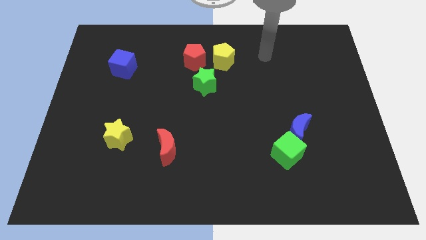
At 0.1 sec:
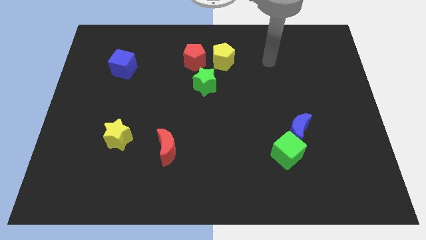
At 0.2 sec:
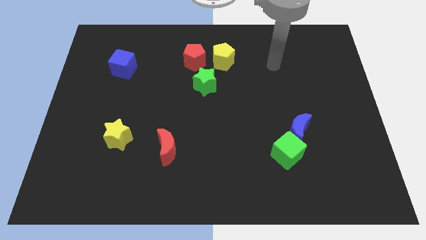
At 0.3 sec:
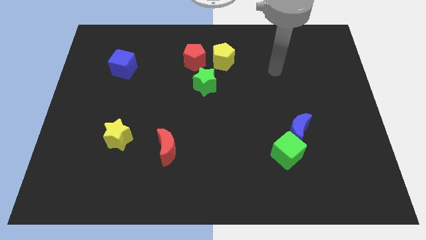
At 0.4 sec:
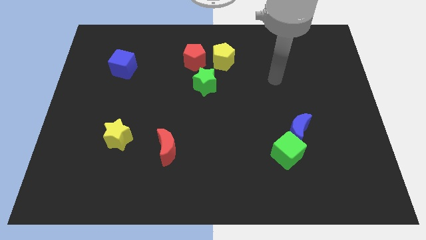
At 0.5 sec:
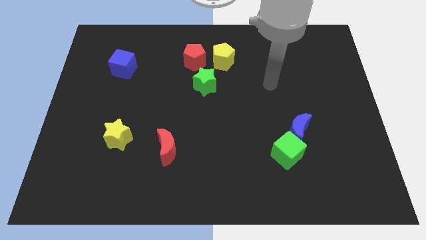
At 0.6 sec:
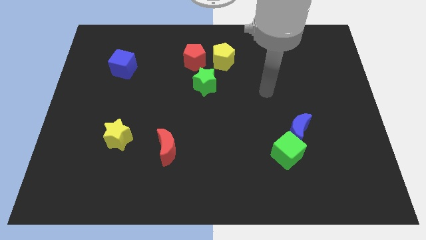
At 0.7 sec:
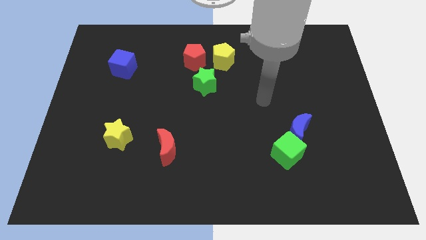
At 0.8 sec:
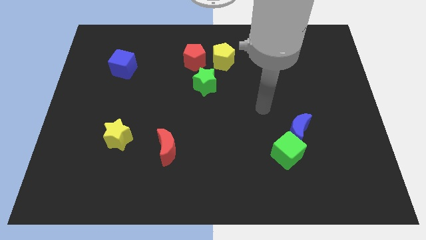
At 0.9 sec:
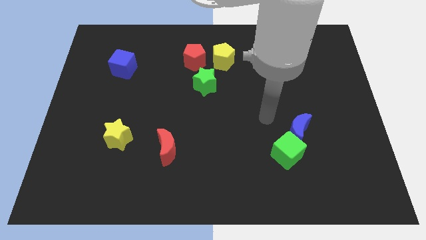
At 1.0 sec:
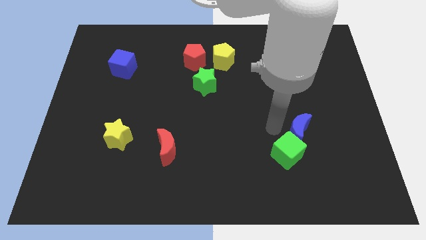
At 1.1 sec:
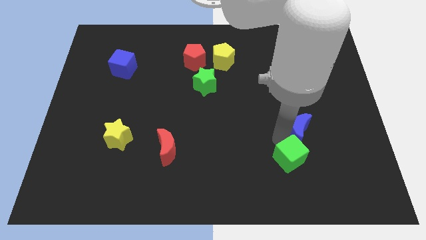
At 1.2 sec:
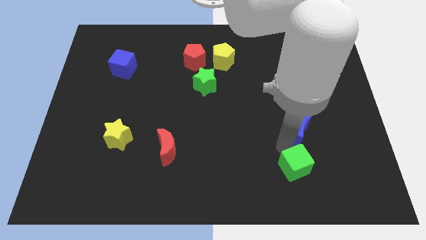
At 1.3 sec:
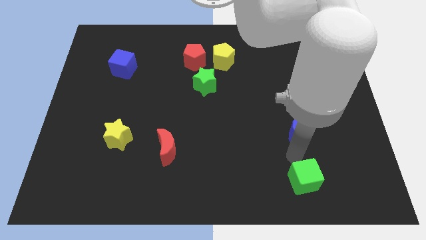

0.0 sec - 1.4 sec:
move the blue moon away from the green cube

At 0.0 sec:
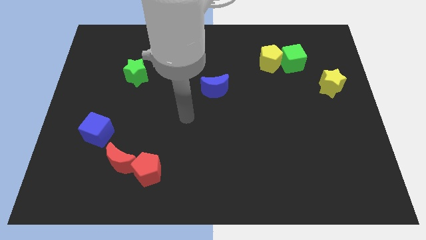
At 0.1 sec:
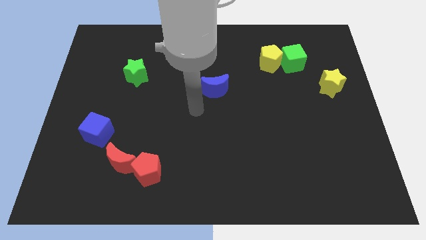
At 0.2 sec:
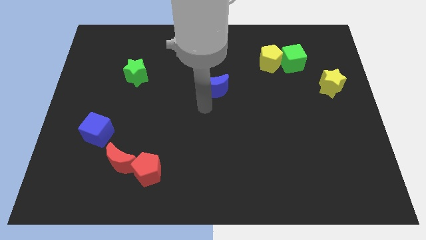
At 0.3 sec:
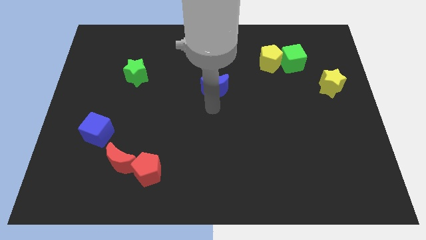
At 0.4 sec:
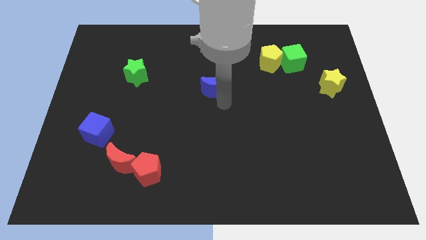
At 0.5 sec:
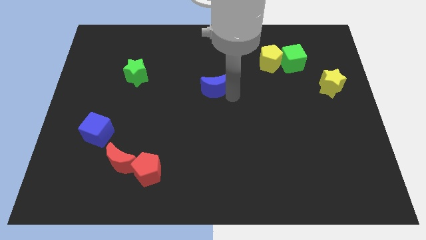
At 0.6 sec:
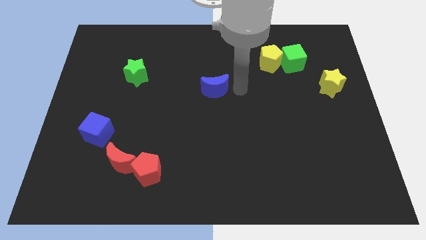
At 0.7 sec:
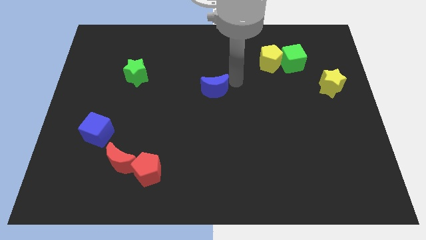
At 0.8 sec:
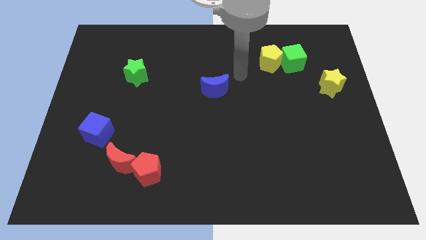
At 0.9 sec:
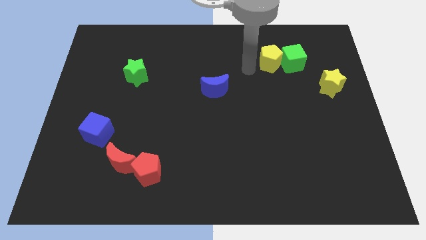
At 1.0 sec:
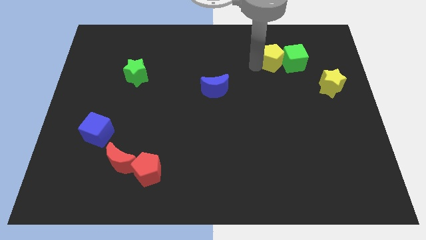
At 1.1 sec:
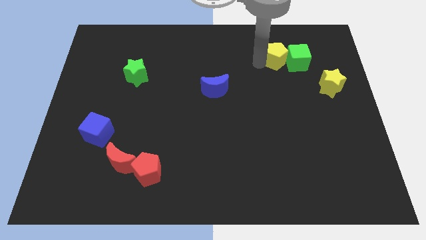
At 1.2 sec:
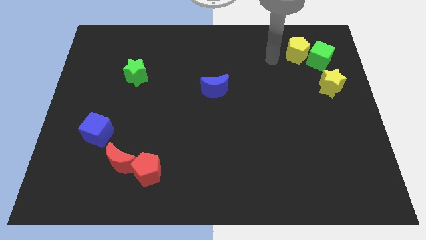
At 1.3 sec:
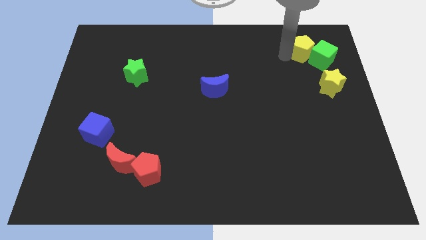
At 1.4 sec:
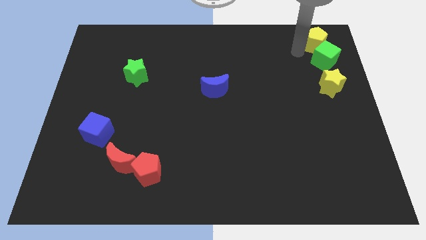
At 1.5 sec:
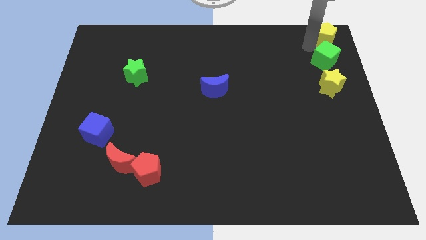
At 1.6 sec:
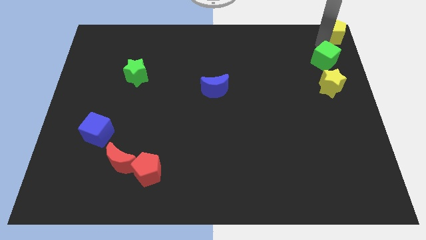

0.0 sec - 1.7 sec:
separate the green cube from the yellow pentagon

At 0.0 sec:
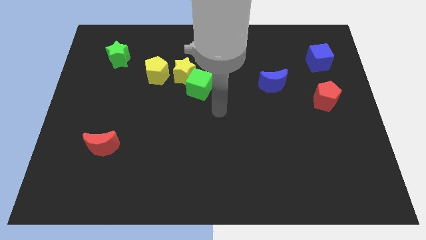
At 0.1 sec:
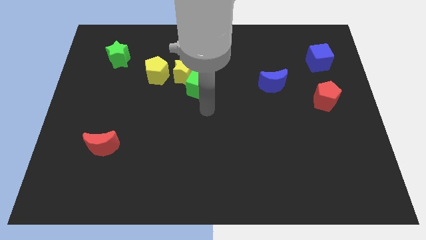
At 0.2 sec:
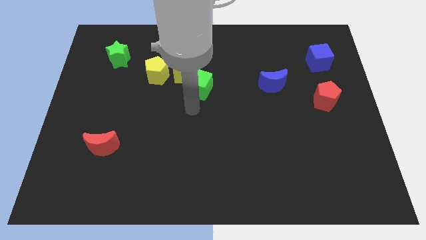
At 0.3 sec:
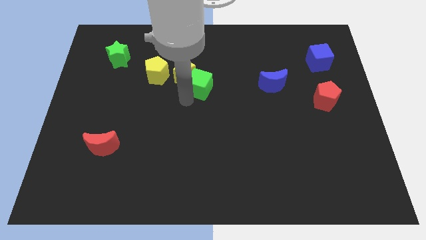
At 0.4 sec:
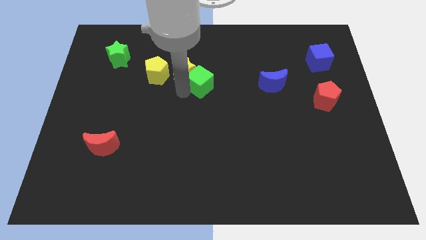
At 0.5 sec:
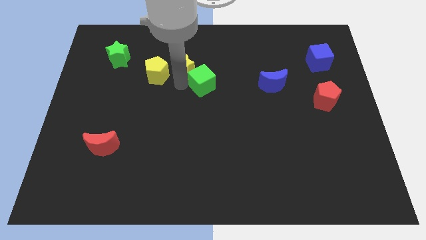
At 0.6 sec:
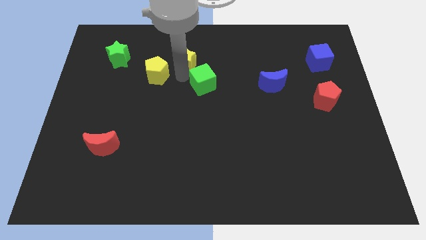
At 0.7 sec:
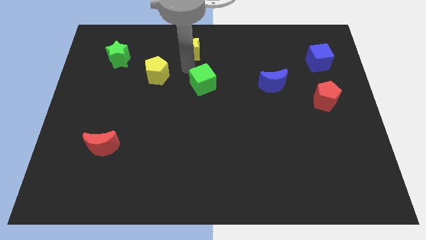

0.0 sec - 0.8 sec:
pull the green cube apart from the yellow star

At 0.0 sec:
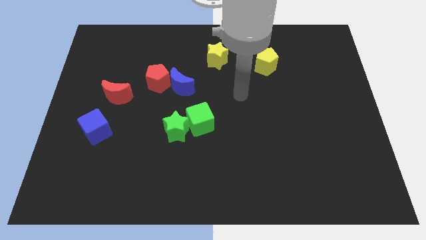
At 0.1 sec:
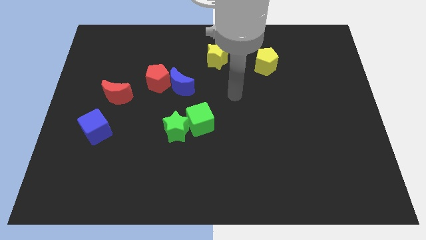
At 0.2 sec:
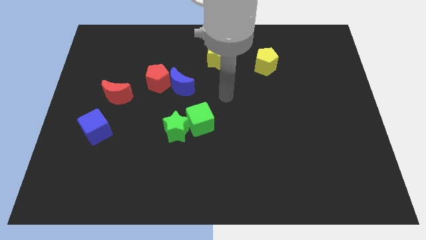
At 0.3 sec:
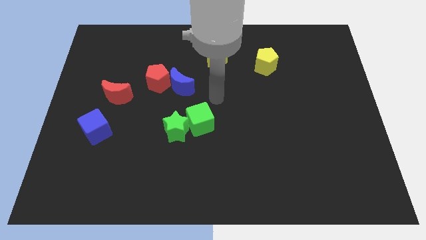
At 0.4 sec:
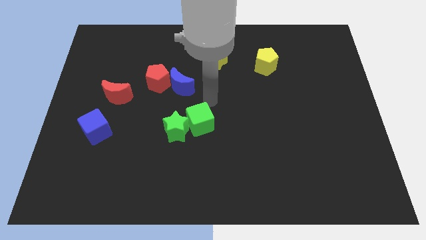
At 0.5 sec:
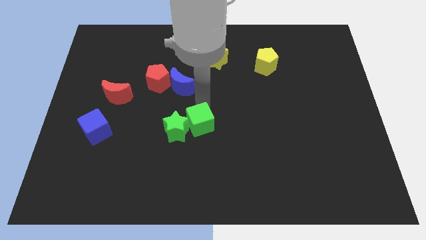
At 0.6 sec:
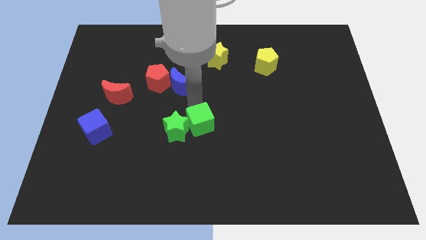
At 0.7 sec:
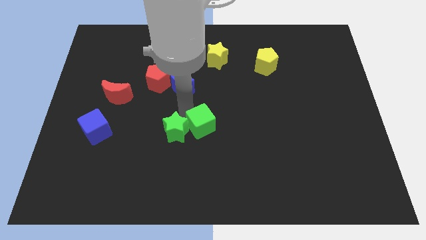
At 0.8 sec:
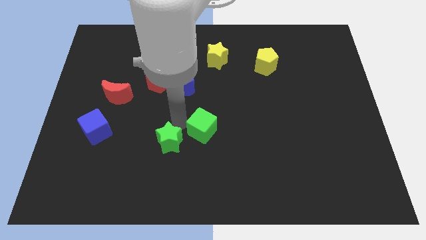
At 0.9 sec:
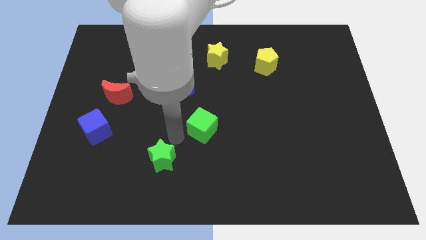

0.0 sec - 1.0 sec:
pull the green cube apart from the green star

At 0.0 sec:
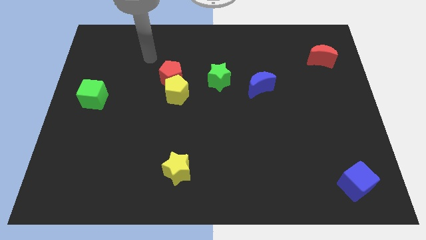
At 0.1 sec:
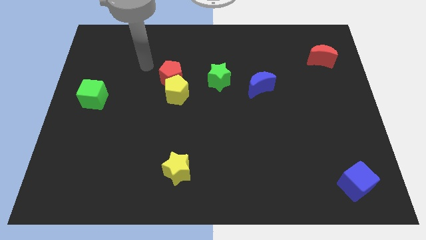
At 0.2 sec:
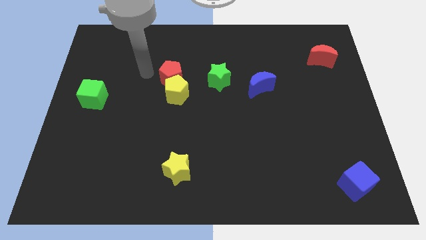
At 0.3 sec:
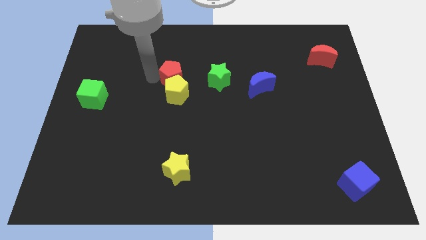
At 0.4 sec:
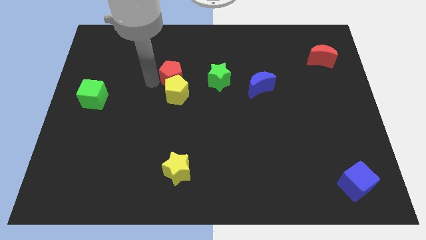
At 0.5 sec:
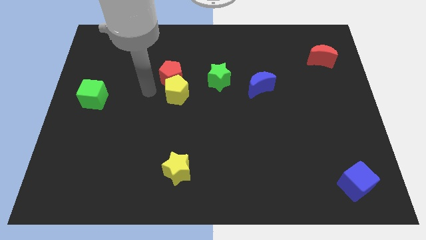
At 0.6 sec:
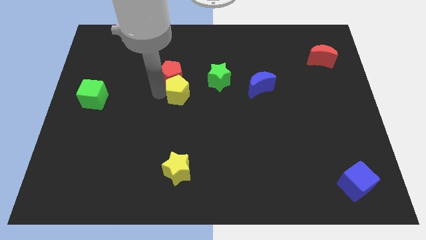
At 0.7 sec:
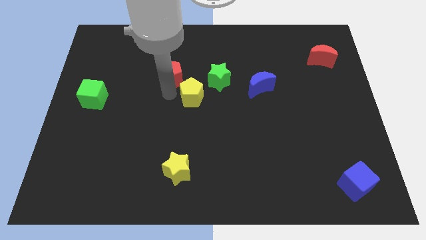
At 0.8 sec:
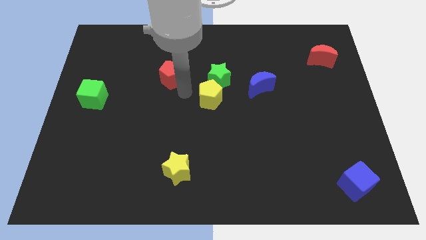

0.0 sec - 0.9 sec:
move the red pentagon away from the yellow pentagon

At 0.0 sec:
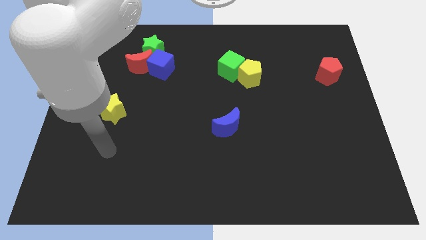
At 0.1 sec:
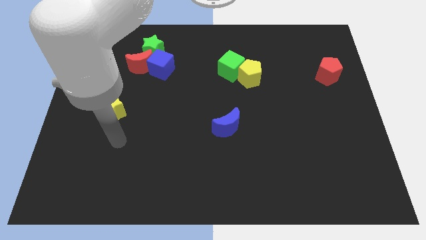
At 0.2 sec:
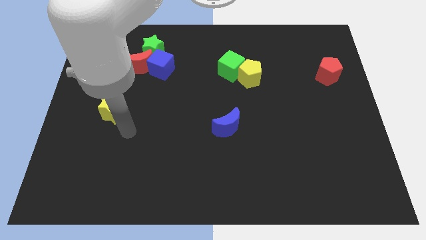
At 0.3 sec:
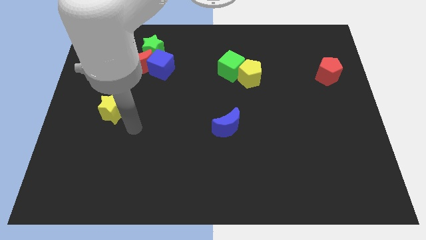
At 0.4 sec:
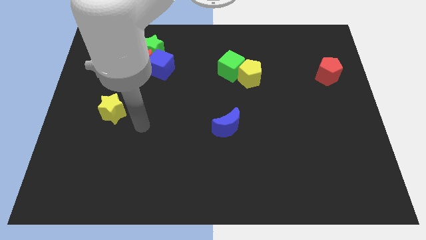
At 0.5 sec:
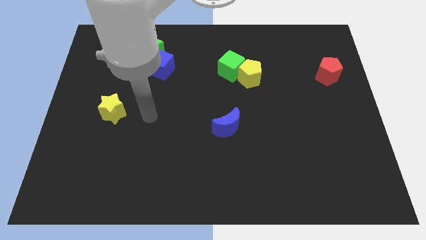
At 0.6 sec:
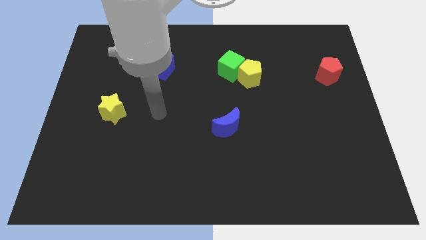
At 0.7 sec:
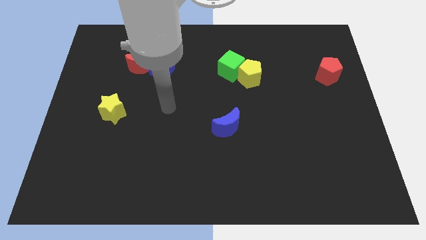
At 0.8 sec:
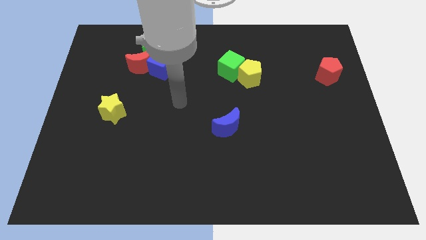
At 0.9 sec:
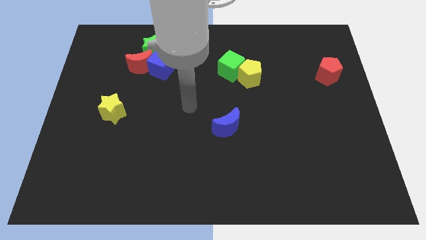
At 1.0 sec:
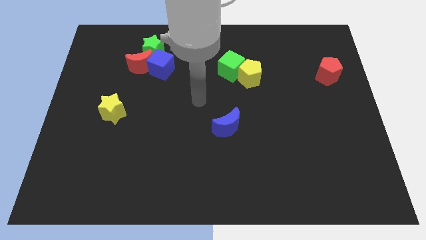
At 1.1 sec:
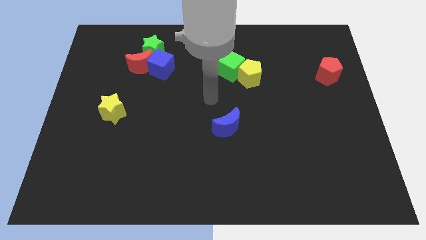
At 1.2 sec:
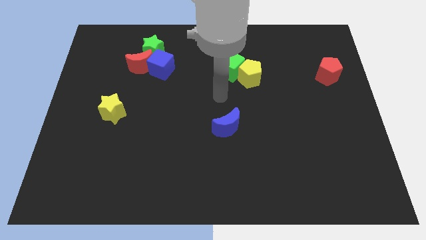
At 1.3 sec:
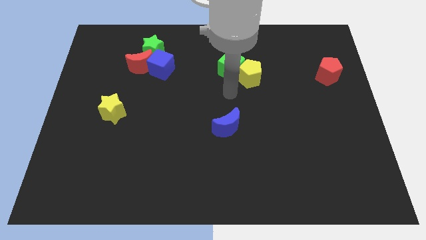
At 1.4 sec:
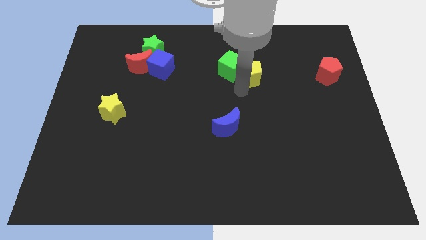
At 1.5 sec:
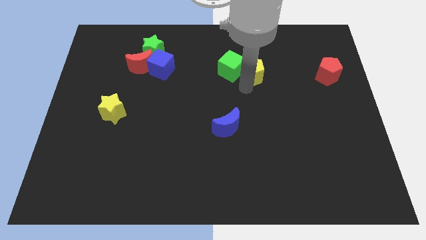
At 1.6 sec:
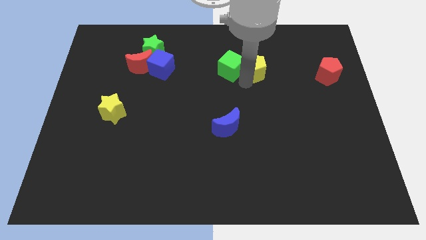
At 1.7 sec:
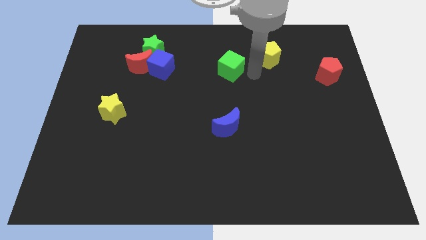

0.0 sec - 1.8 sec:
move the green cube away from the yellow pentagon

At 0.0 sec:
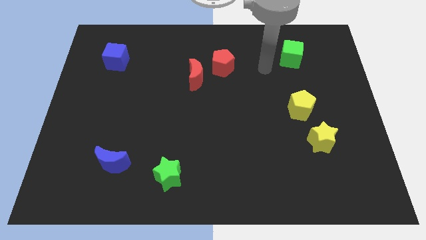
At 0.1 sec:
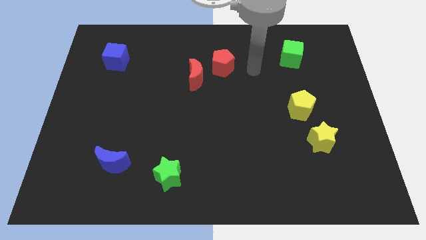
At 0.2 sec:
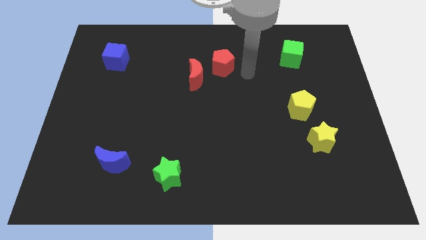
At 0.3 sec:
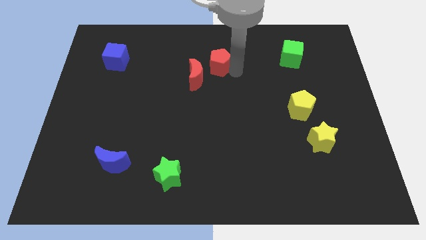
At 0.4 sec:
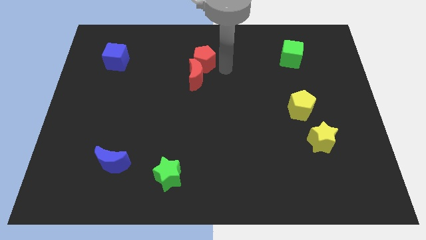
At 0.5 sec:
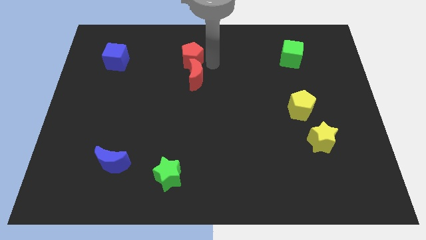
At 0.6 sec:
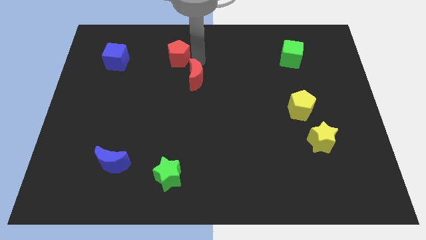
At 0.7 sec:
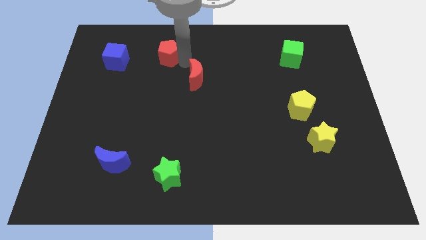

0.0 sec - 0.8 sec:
pull the red moon apart from the red pentagon

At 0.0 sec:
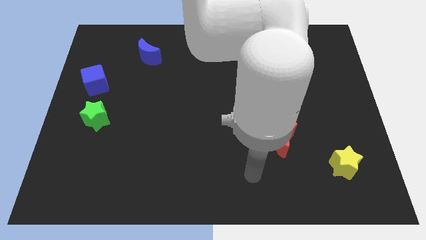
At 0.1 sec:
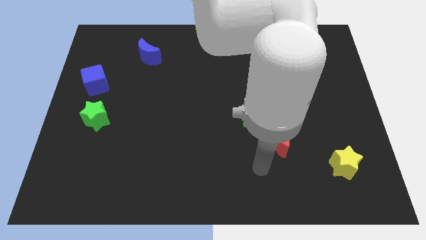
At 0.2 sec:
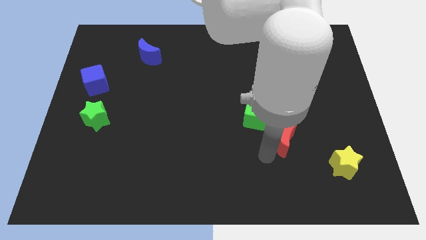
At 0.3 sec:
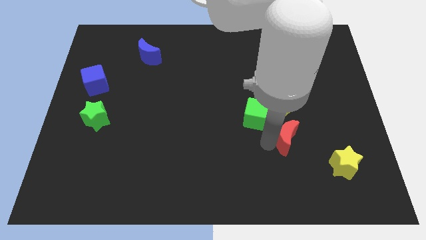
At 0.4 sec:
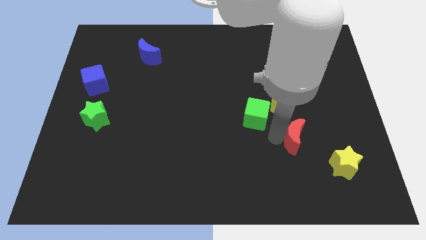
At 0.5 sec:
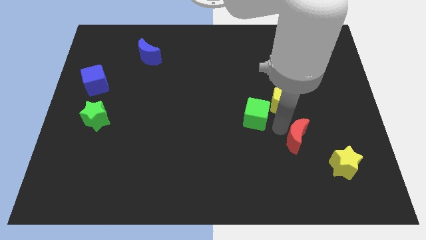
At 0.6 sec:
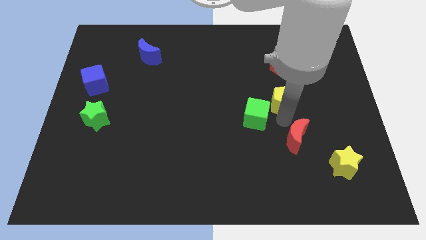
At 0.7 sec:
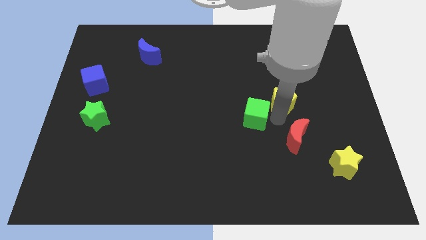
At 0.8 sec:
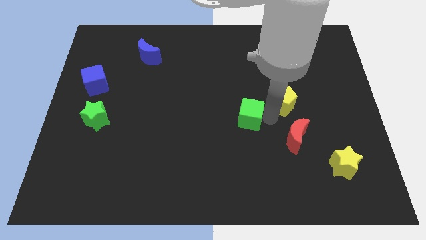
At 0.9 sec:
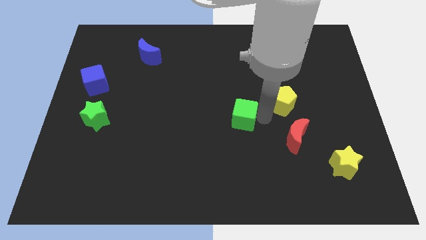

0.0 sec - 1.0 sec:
move the green cube away from the yellow pentagon and red moon
